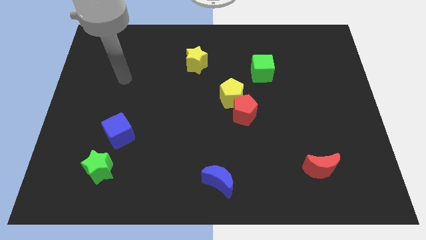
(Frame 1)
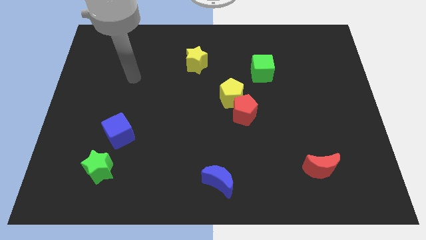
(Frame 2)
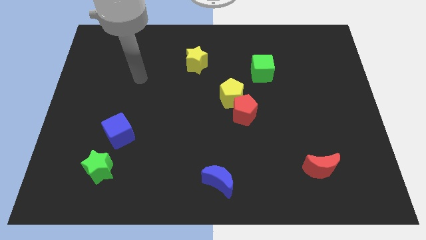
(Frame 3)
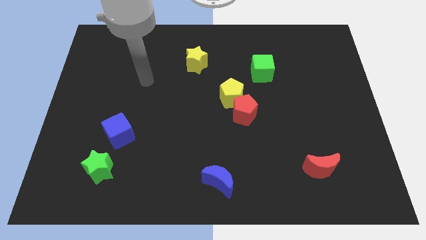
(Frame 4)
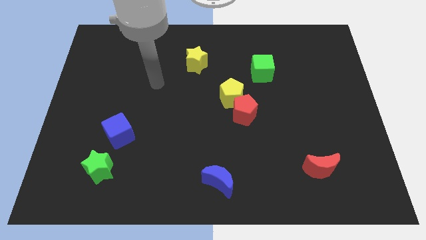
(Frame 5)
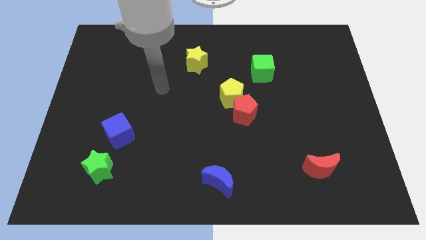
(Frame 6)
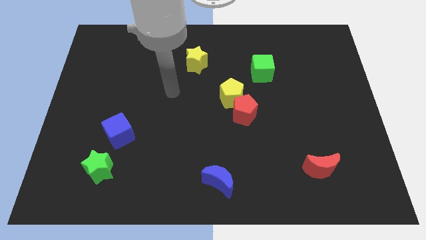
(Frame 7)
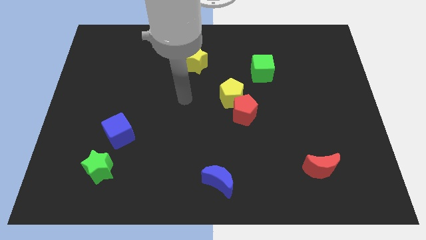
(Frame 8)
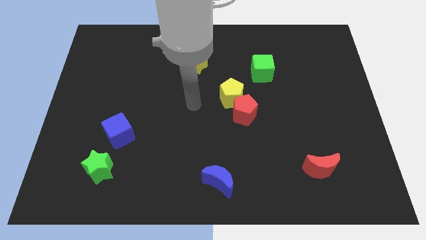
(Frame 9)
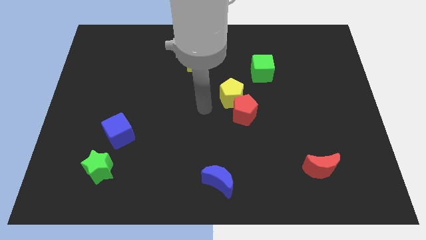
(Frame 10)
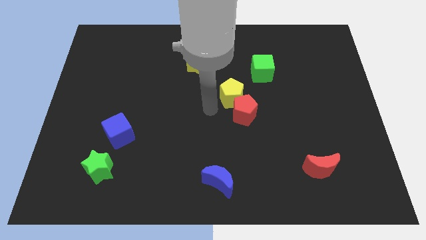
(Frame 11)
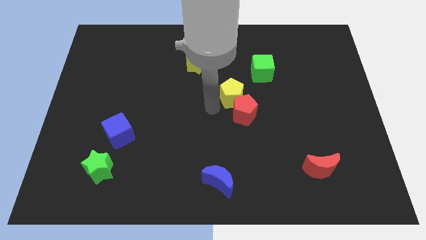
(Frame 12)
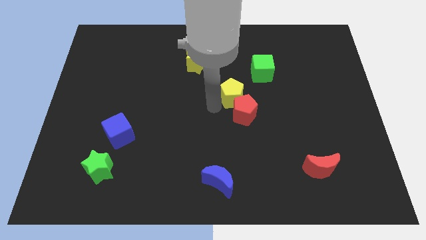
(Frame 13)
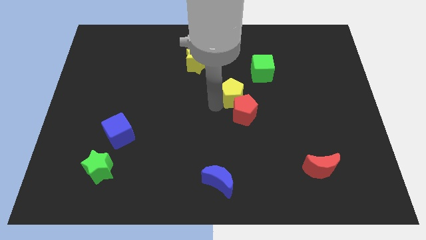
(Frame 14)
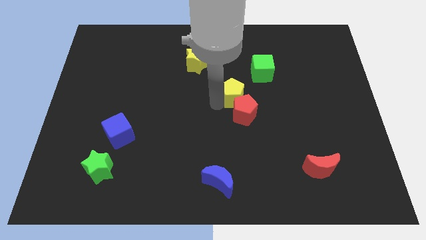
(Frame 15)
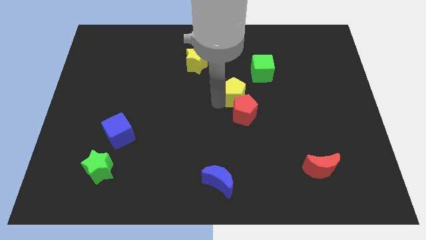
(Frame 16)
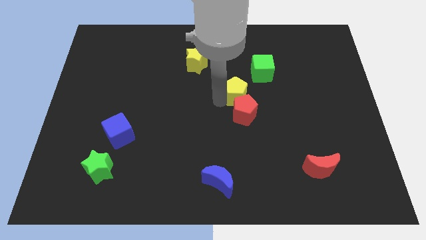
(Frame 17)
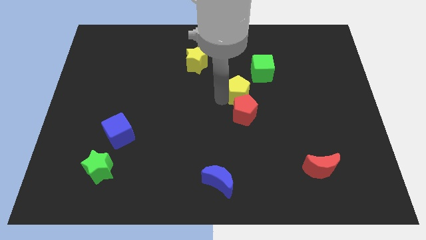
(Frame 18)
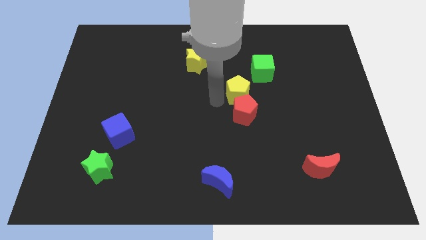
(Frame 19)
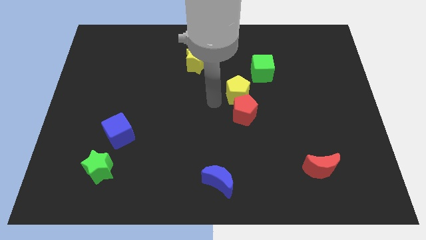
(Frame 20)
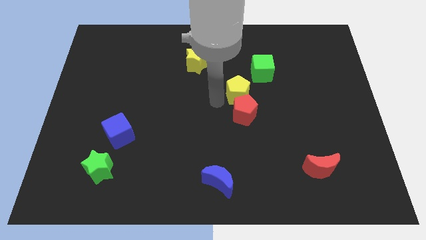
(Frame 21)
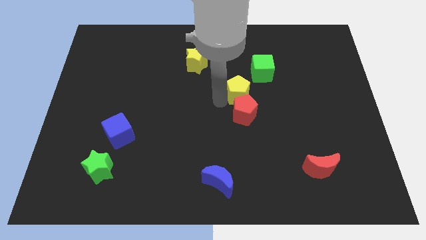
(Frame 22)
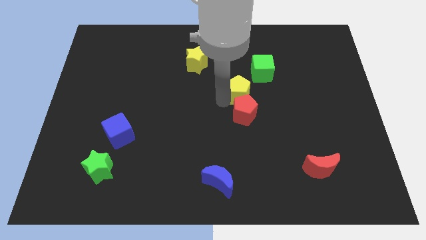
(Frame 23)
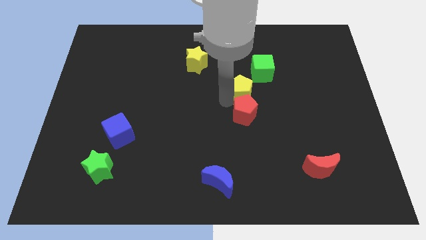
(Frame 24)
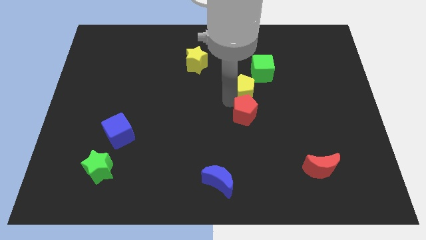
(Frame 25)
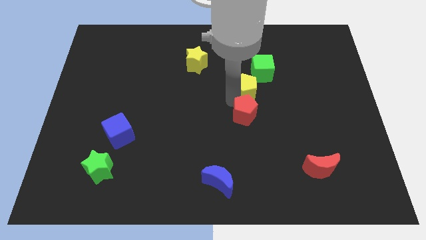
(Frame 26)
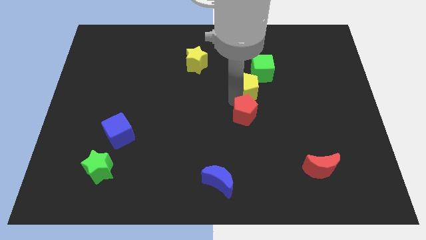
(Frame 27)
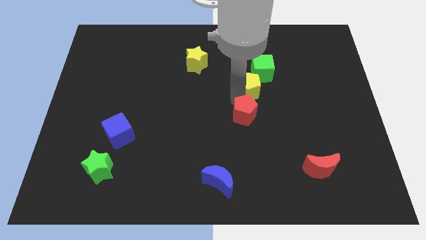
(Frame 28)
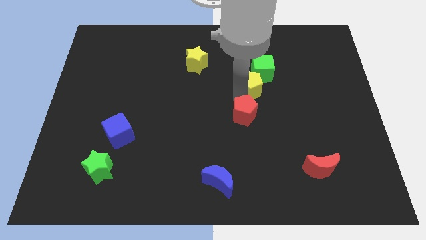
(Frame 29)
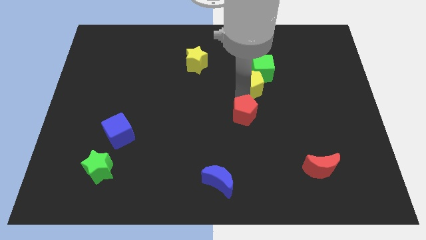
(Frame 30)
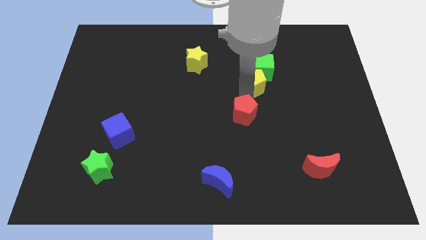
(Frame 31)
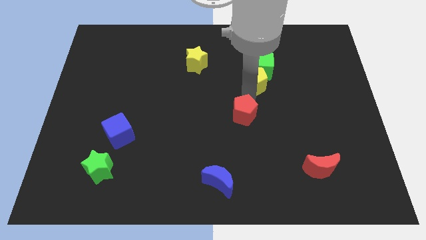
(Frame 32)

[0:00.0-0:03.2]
slightly push the yellow pentagon up and to the right

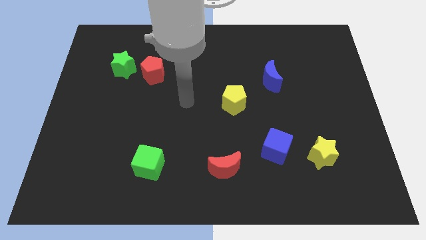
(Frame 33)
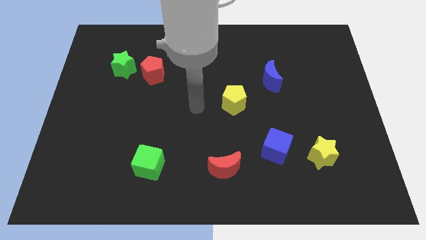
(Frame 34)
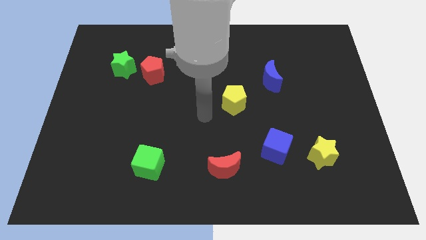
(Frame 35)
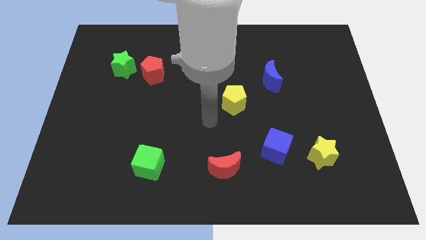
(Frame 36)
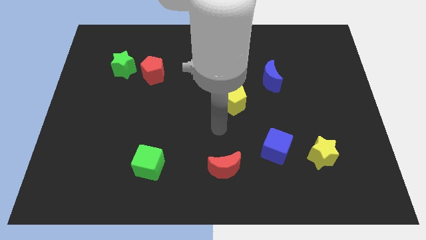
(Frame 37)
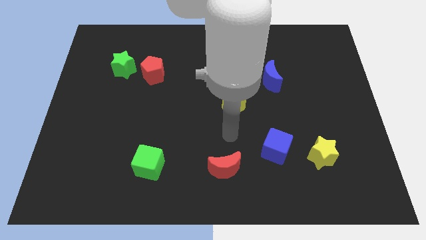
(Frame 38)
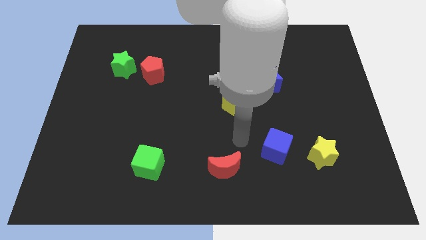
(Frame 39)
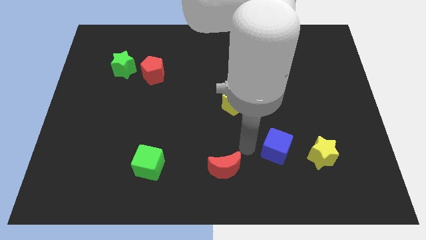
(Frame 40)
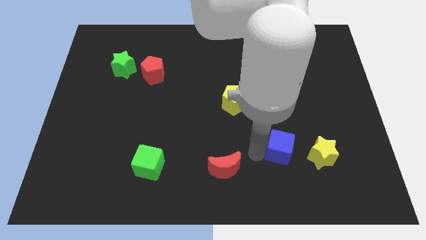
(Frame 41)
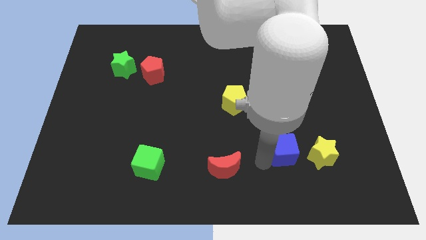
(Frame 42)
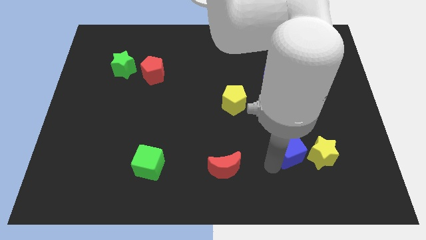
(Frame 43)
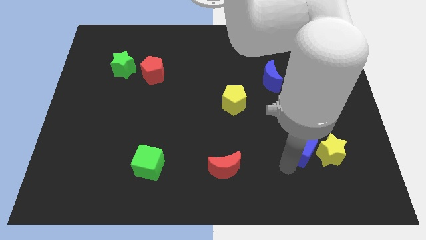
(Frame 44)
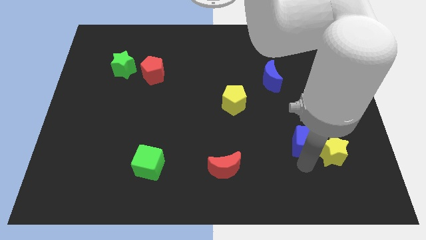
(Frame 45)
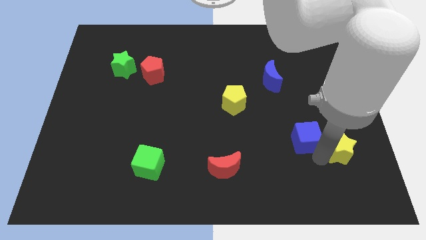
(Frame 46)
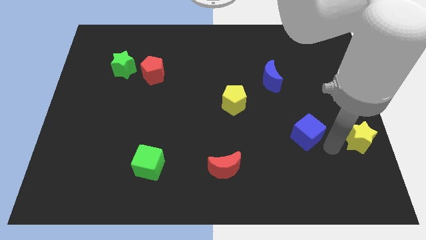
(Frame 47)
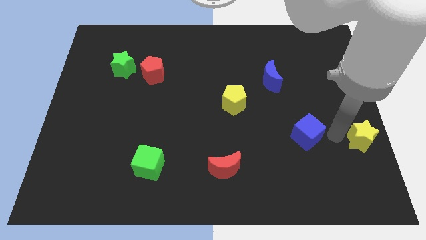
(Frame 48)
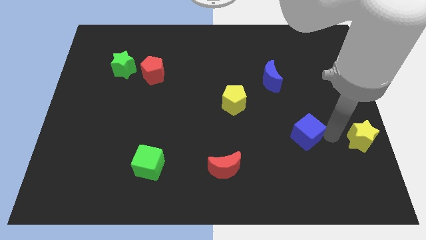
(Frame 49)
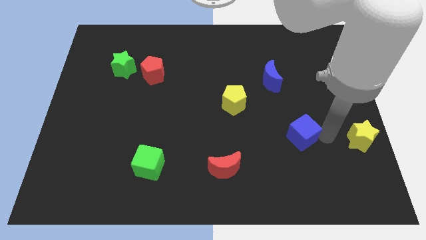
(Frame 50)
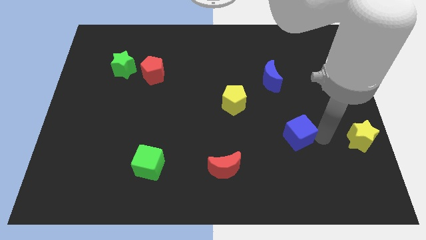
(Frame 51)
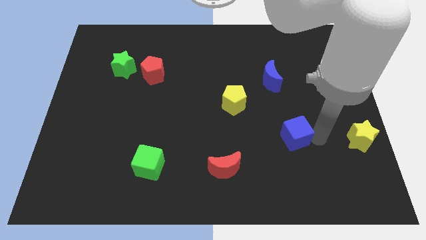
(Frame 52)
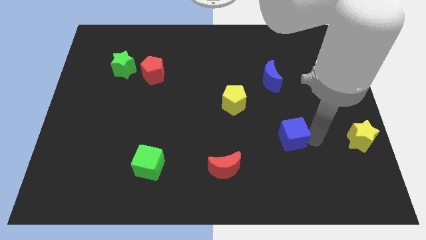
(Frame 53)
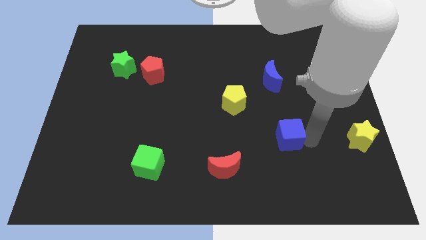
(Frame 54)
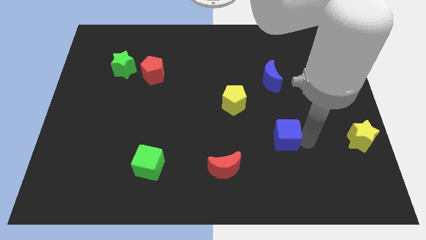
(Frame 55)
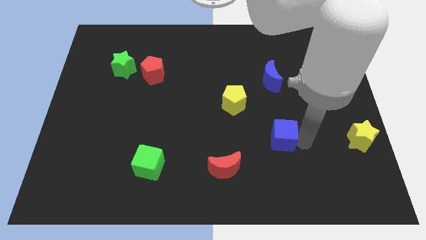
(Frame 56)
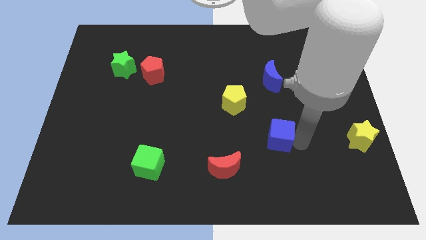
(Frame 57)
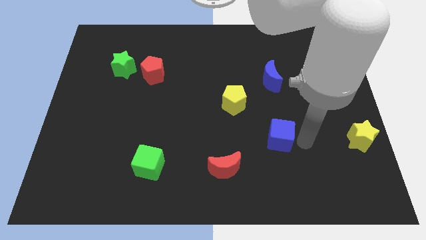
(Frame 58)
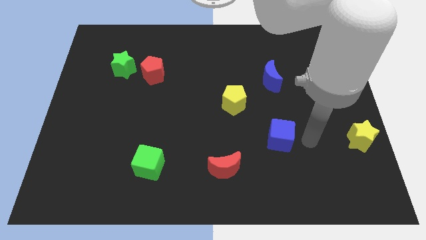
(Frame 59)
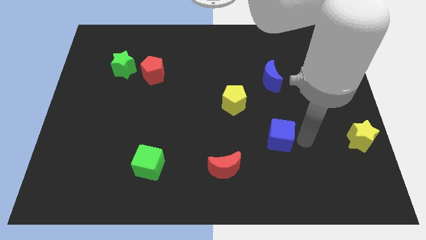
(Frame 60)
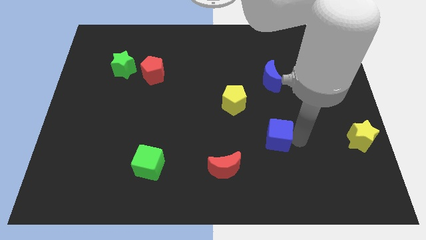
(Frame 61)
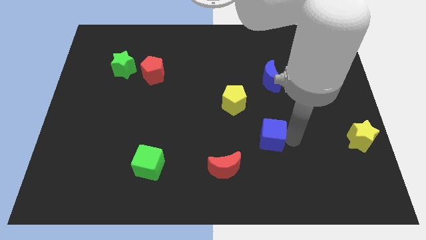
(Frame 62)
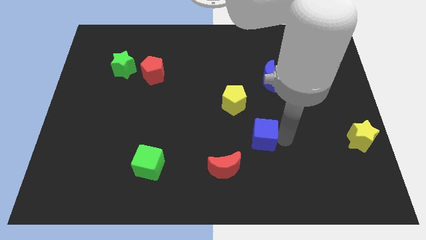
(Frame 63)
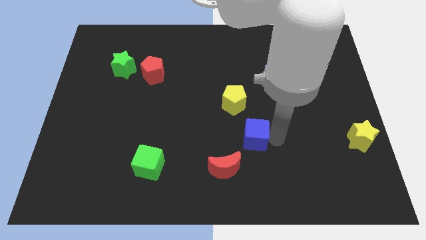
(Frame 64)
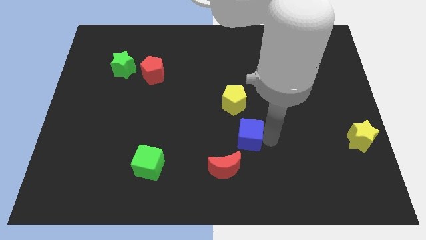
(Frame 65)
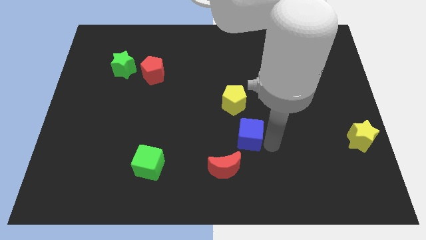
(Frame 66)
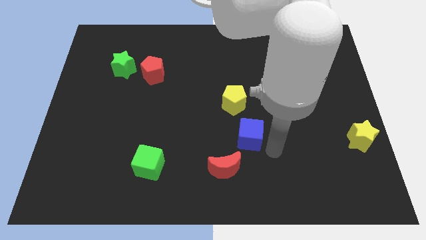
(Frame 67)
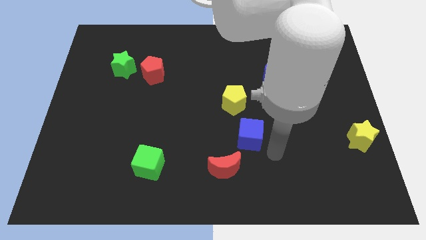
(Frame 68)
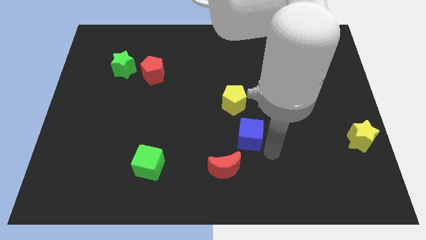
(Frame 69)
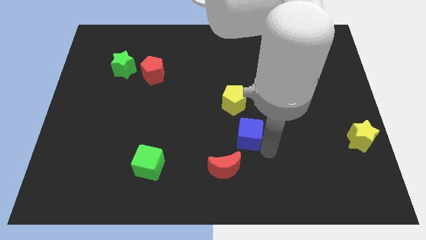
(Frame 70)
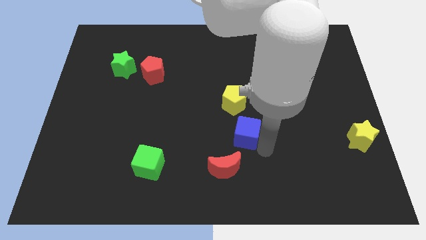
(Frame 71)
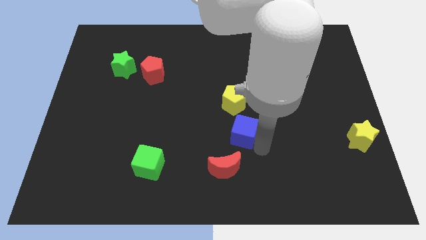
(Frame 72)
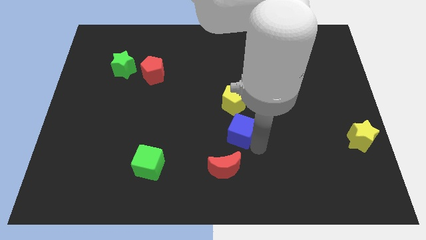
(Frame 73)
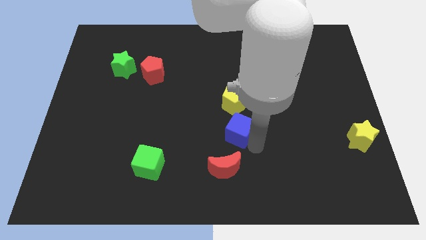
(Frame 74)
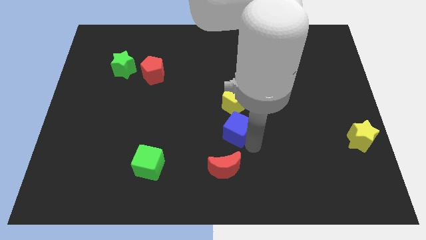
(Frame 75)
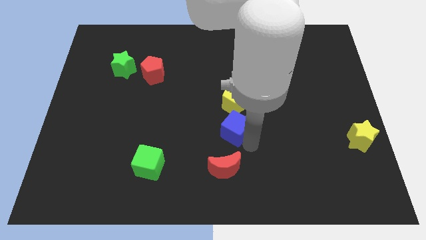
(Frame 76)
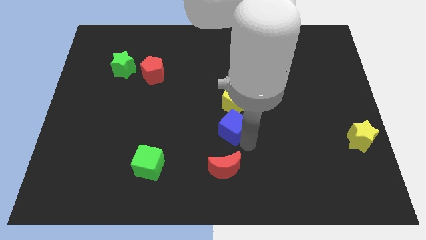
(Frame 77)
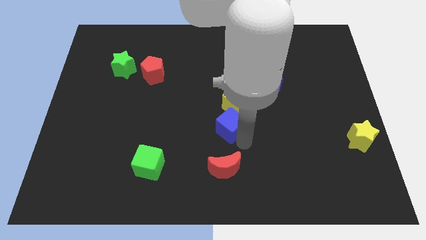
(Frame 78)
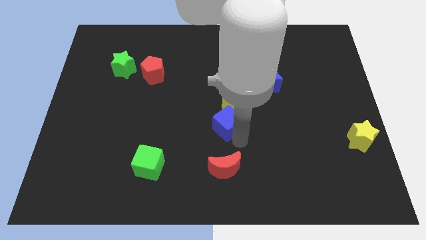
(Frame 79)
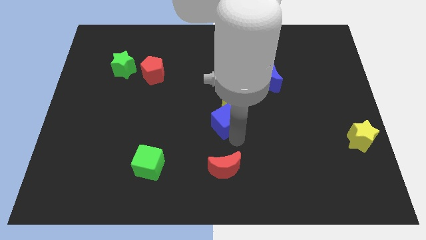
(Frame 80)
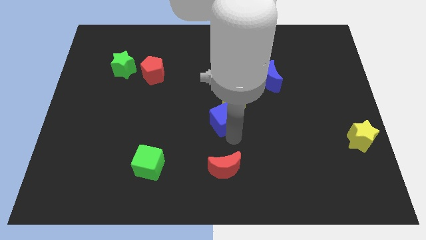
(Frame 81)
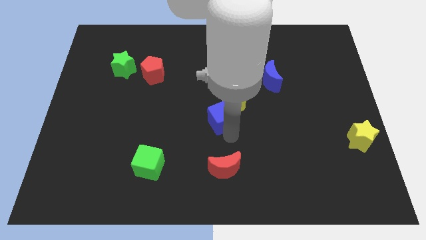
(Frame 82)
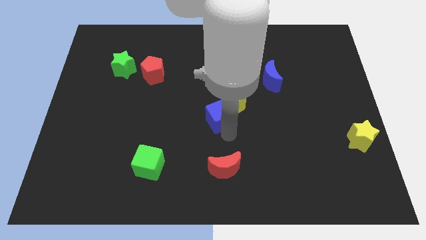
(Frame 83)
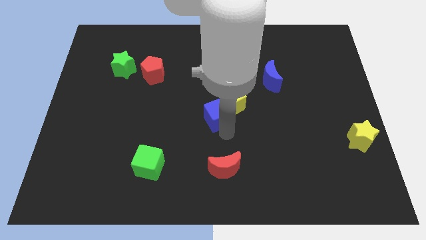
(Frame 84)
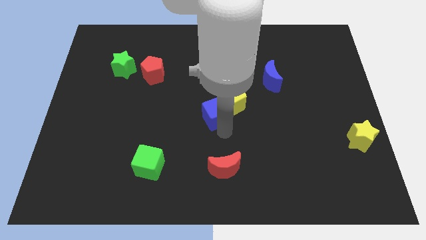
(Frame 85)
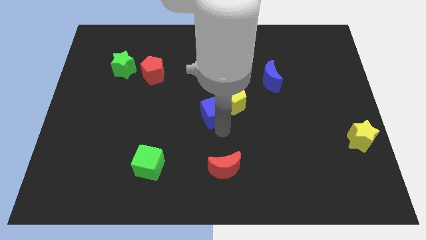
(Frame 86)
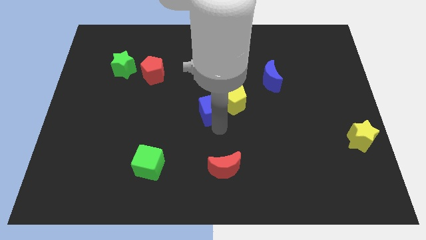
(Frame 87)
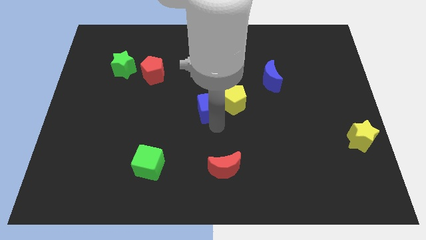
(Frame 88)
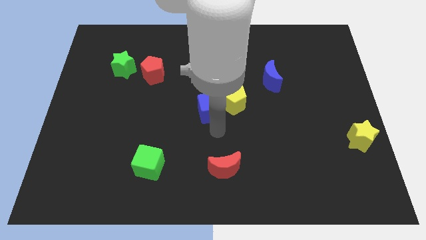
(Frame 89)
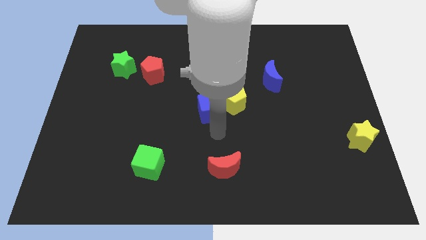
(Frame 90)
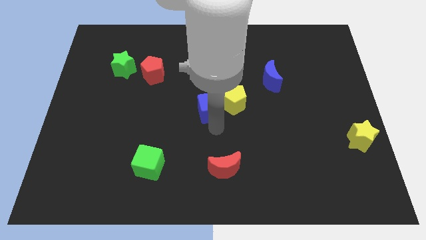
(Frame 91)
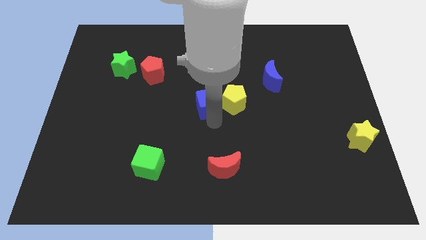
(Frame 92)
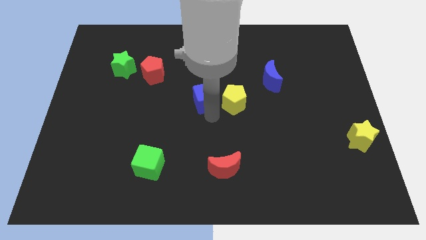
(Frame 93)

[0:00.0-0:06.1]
slide the blue cube up and left
